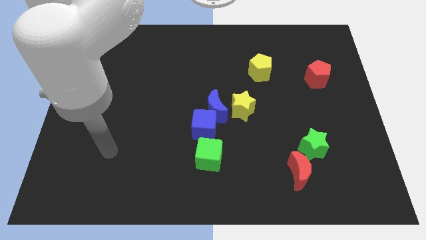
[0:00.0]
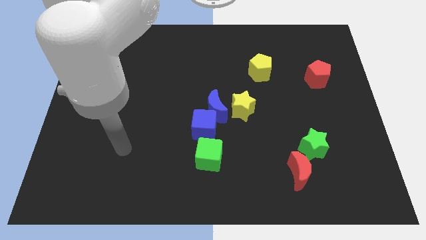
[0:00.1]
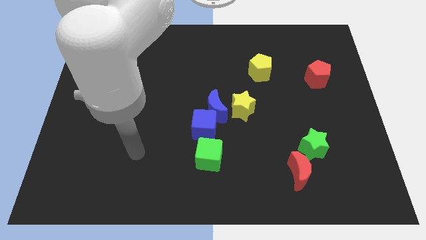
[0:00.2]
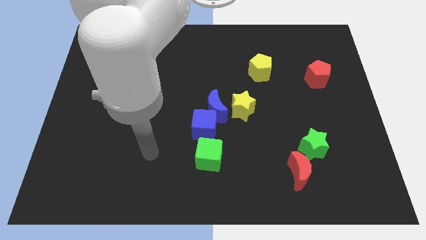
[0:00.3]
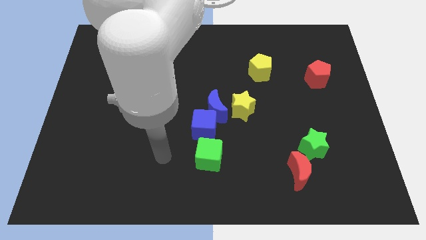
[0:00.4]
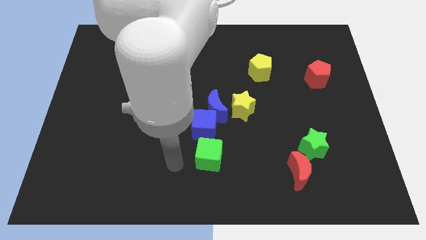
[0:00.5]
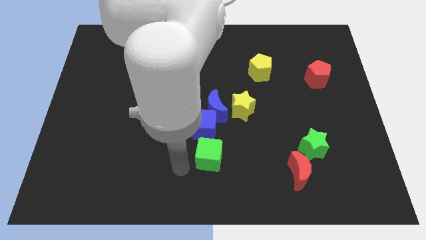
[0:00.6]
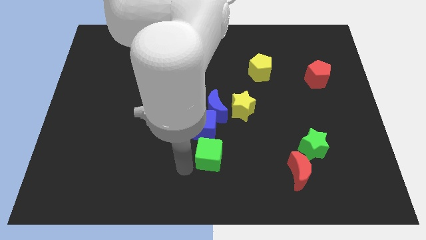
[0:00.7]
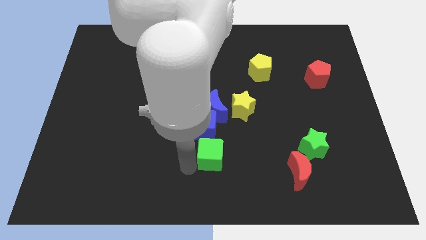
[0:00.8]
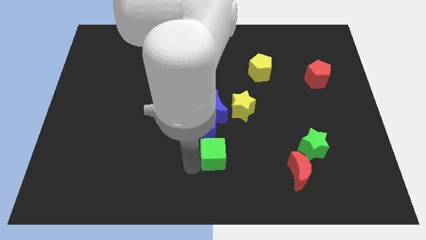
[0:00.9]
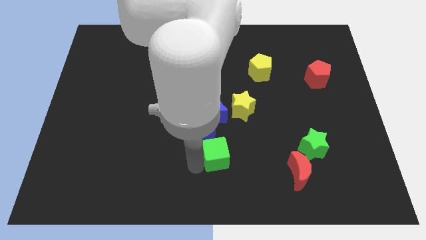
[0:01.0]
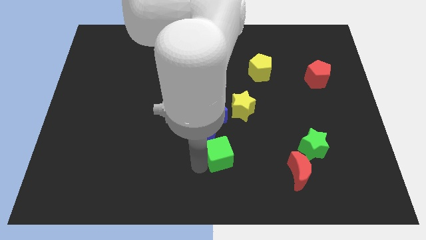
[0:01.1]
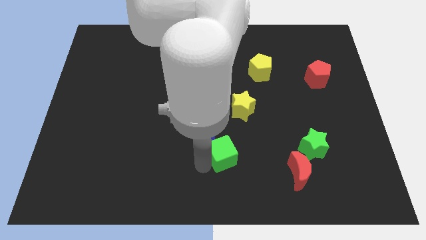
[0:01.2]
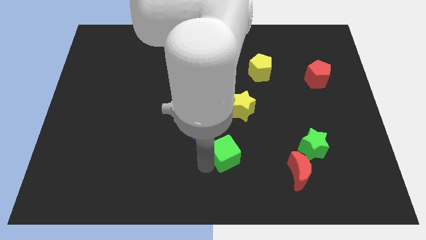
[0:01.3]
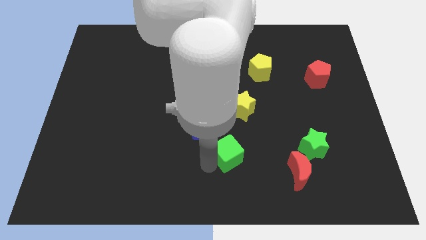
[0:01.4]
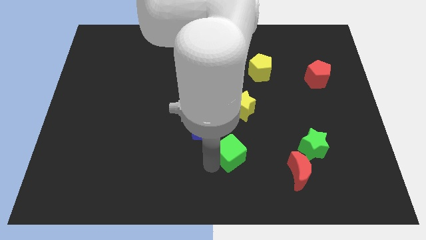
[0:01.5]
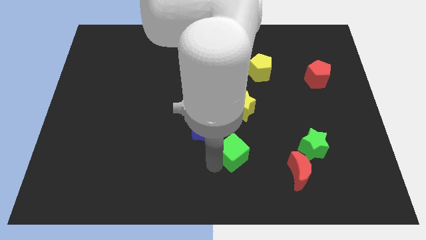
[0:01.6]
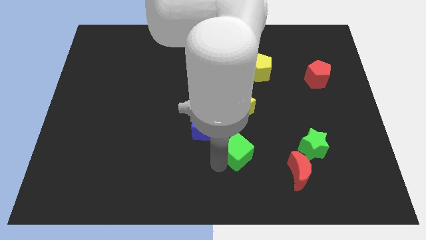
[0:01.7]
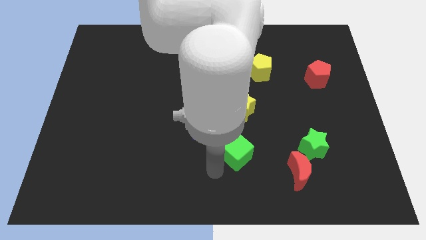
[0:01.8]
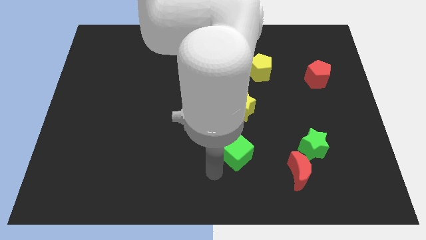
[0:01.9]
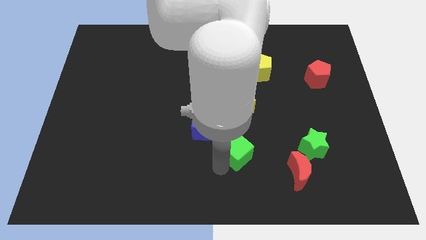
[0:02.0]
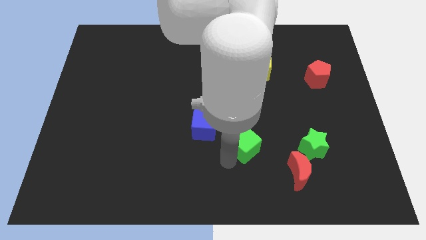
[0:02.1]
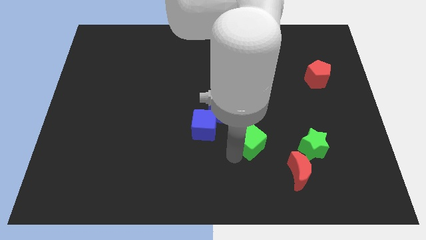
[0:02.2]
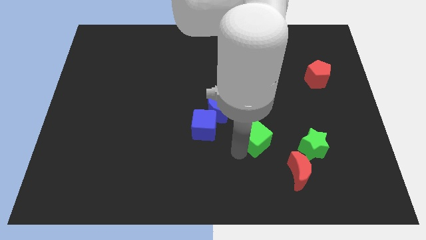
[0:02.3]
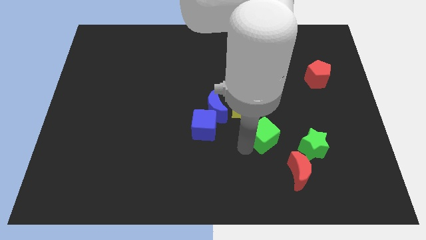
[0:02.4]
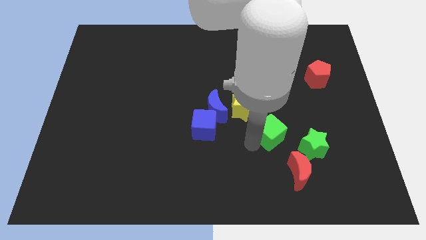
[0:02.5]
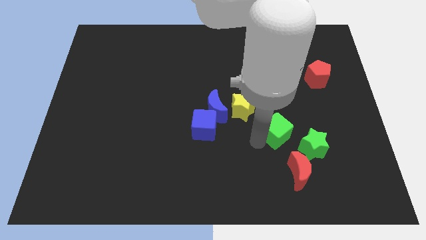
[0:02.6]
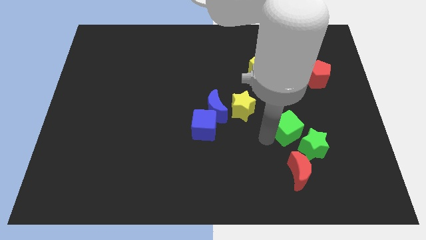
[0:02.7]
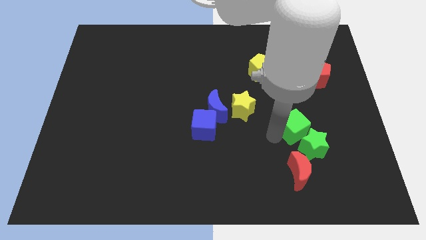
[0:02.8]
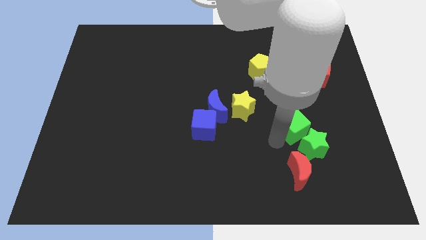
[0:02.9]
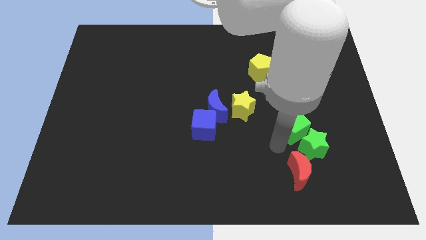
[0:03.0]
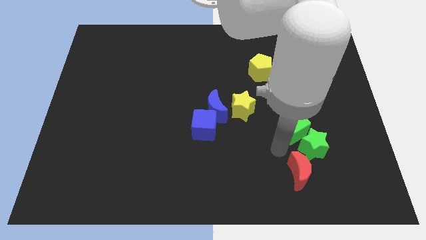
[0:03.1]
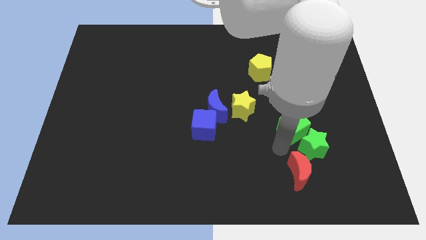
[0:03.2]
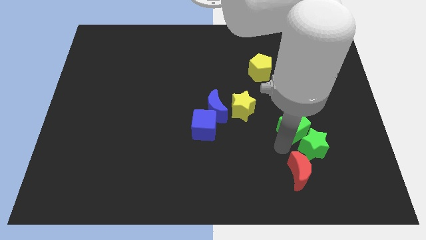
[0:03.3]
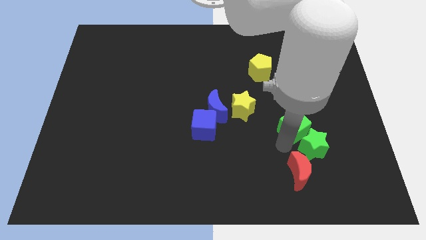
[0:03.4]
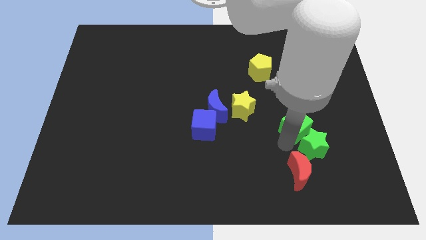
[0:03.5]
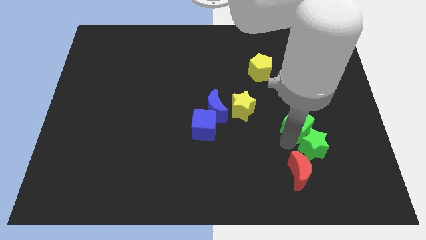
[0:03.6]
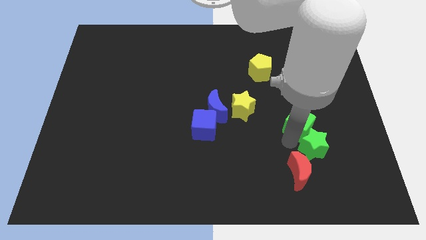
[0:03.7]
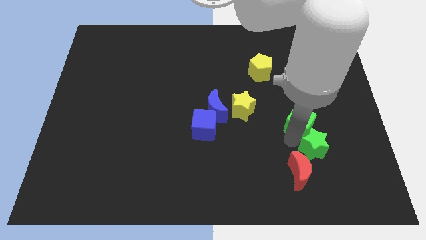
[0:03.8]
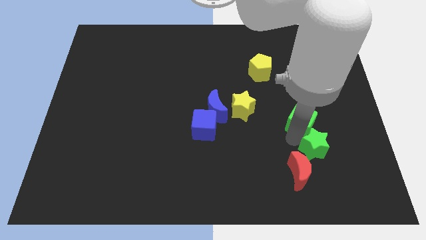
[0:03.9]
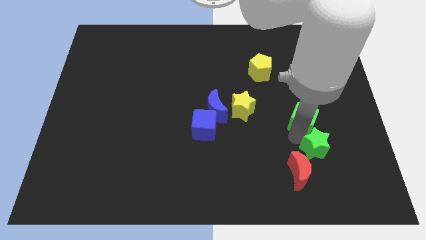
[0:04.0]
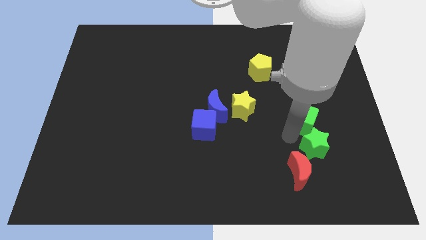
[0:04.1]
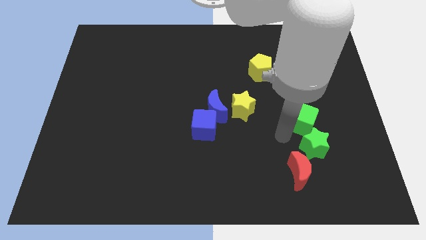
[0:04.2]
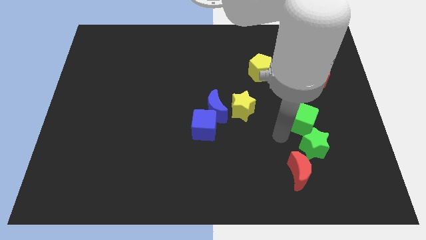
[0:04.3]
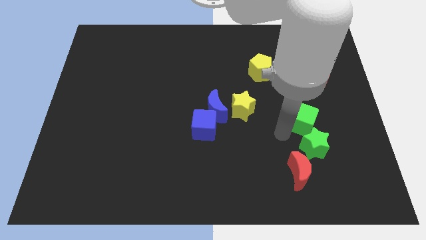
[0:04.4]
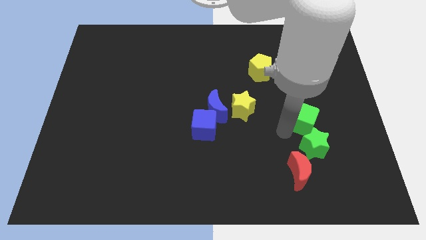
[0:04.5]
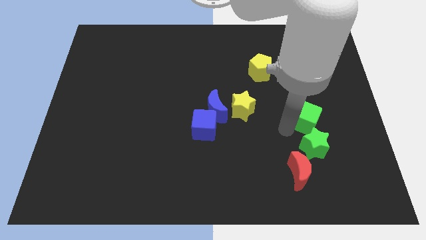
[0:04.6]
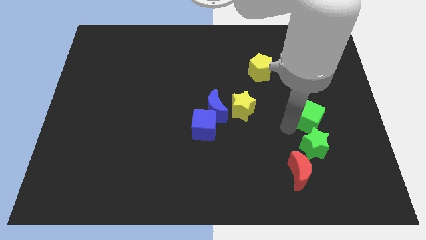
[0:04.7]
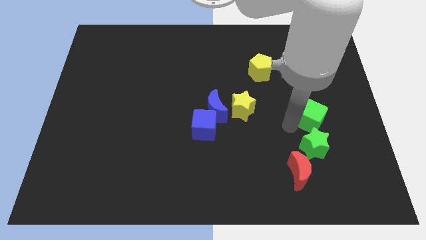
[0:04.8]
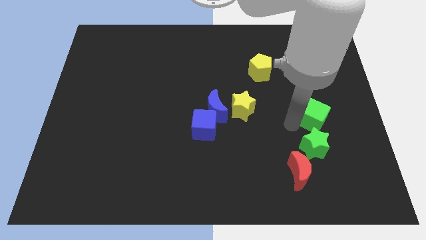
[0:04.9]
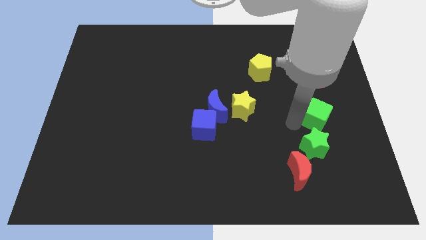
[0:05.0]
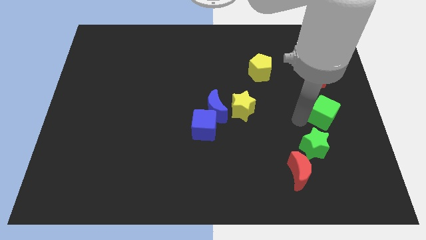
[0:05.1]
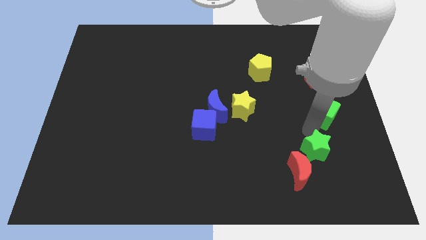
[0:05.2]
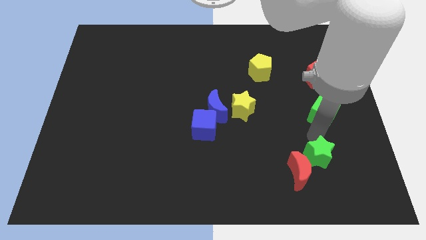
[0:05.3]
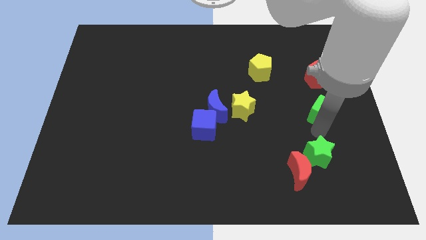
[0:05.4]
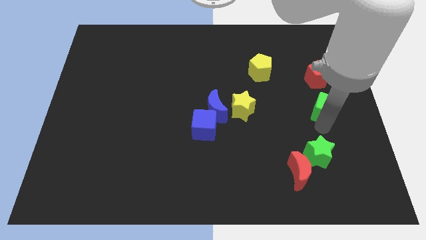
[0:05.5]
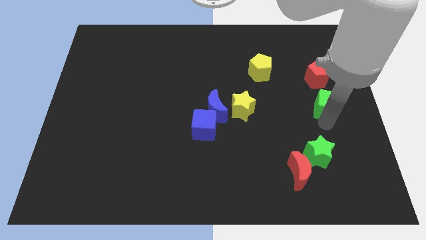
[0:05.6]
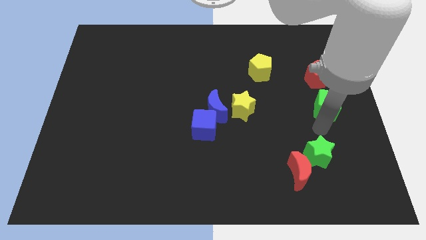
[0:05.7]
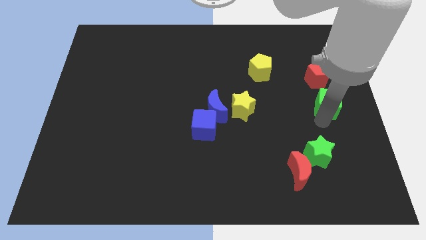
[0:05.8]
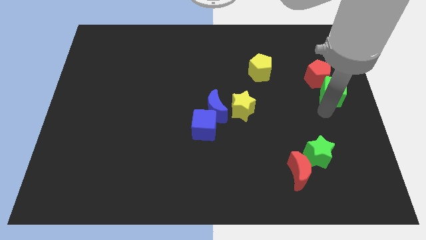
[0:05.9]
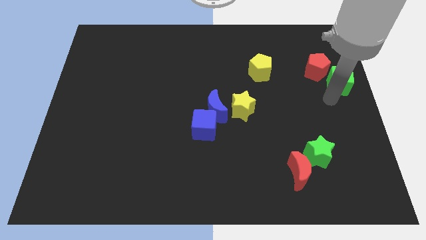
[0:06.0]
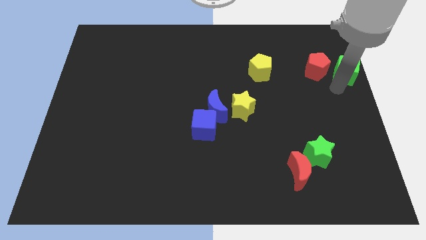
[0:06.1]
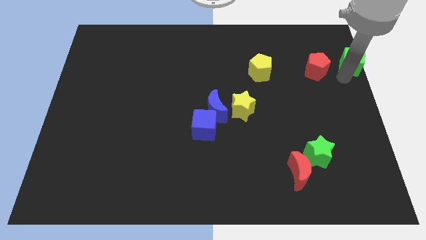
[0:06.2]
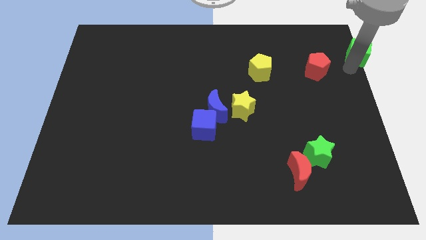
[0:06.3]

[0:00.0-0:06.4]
push the green cube to the top right of the board
